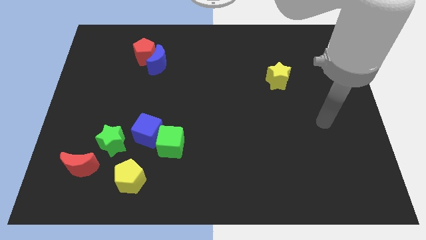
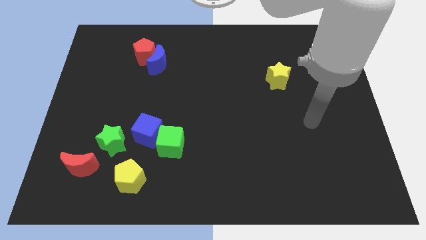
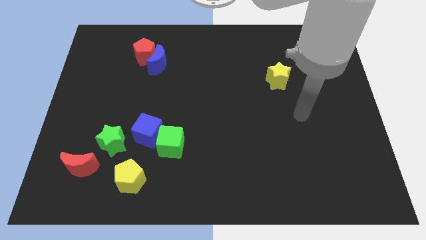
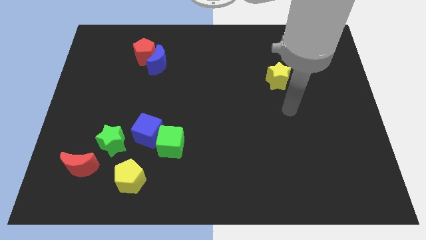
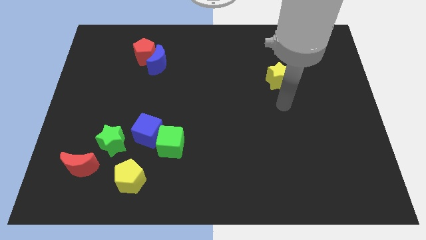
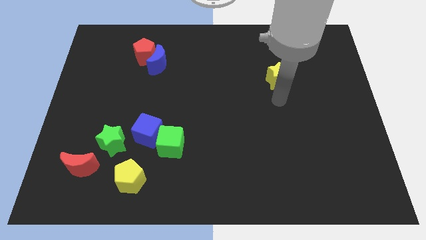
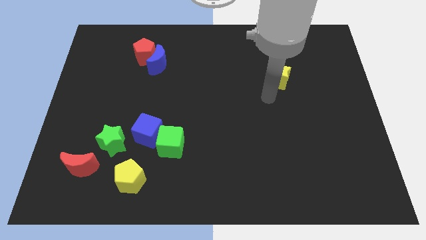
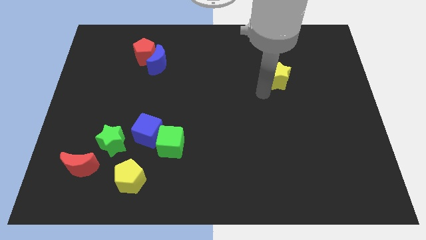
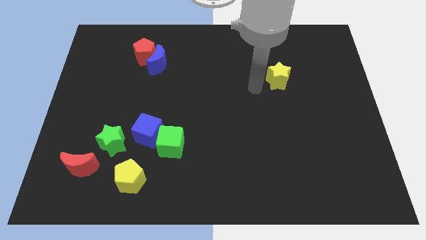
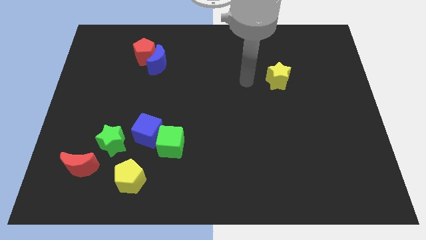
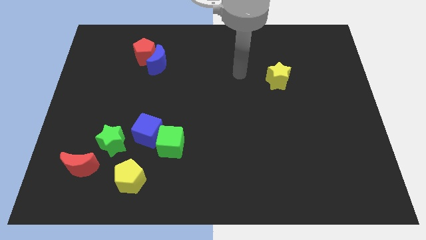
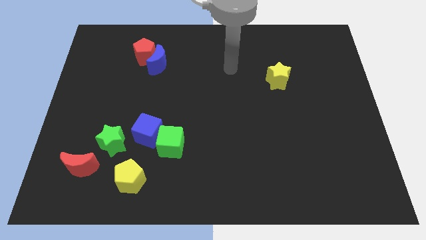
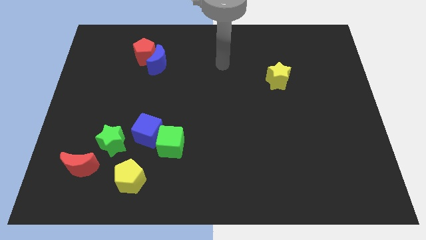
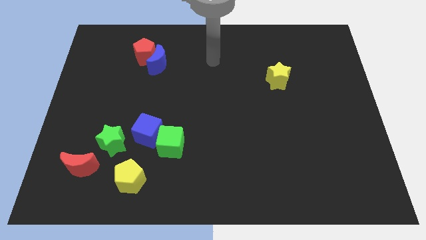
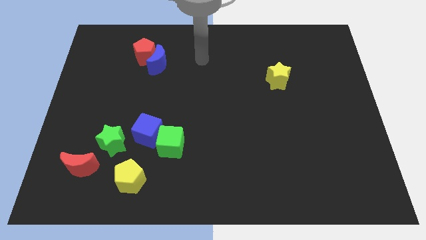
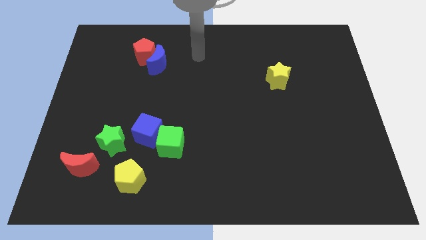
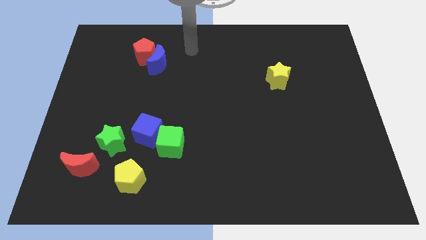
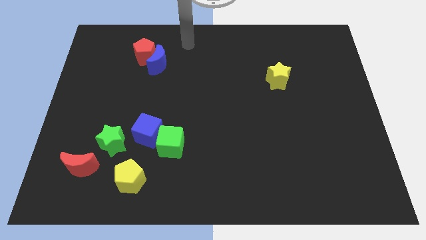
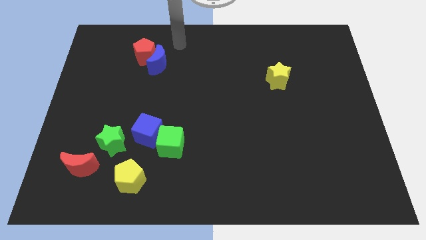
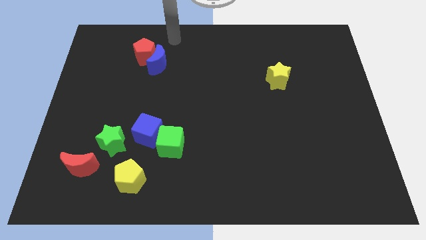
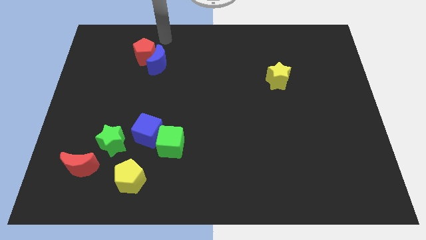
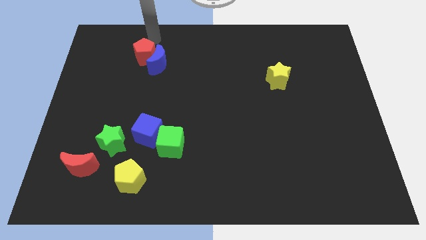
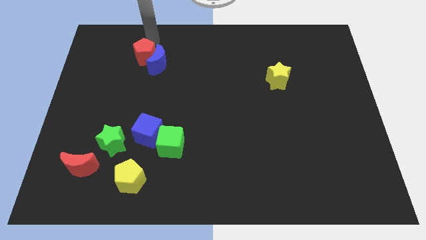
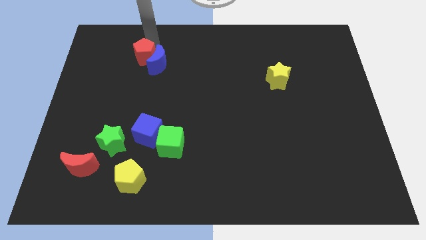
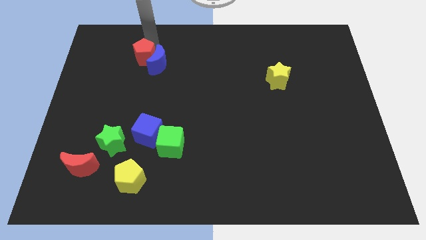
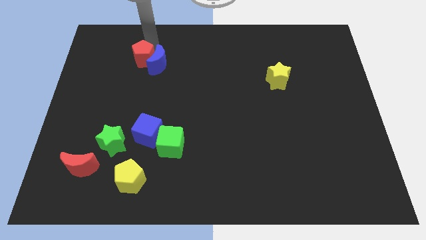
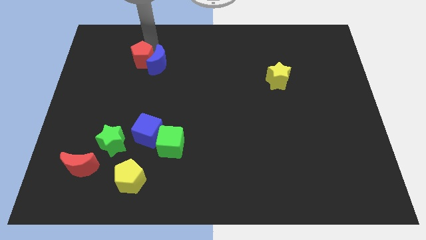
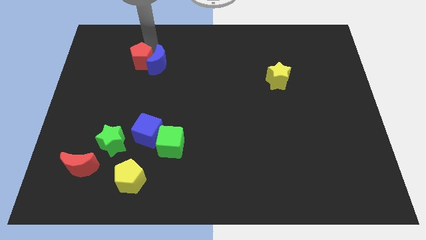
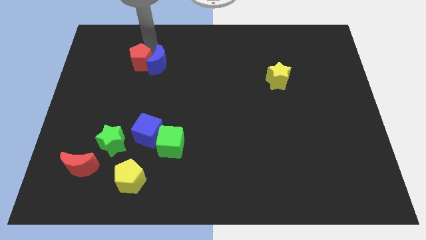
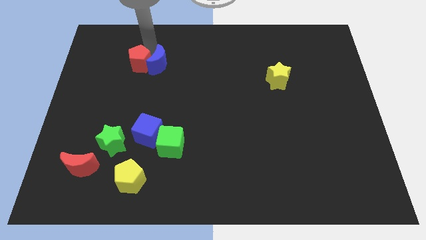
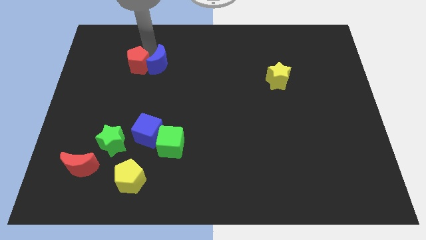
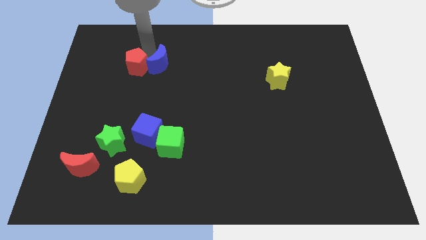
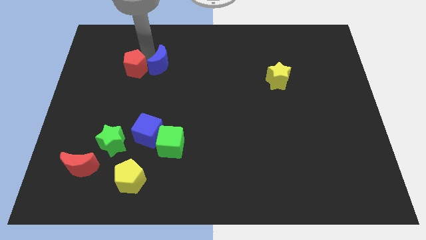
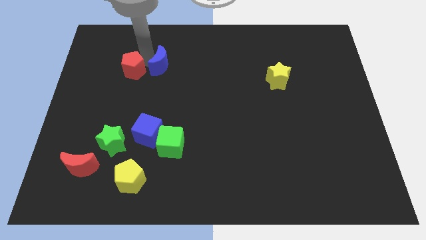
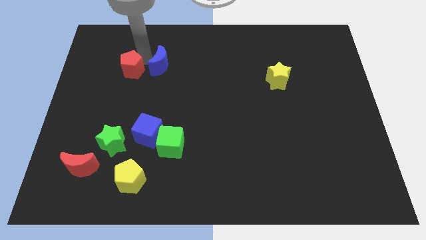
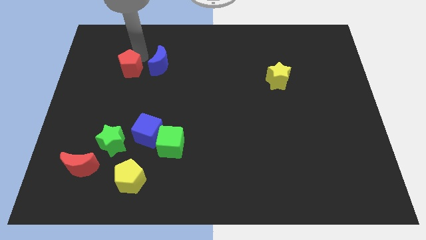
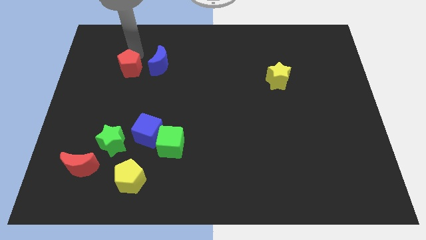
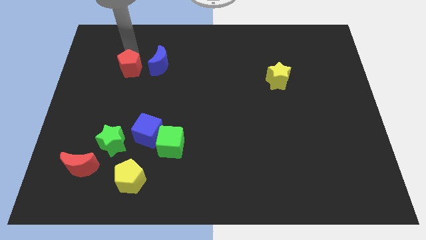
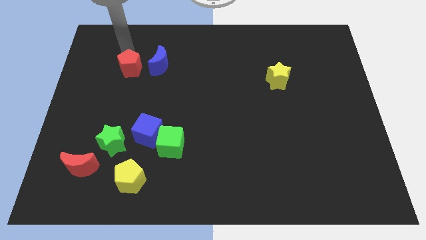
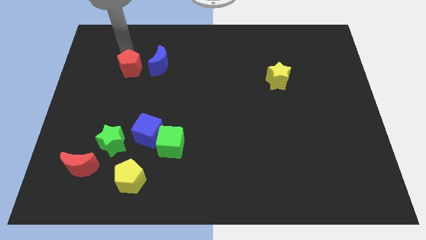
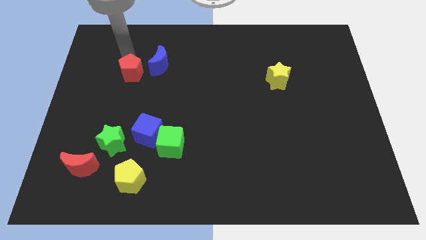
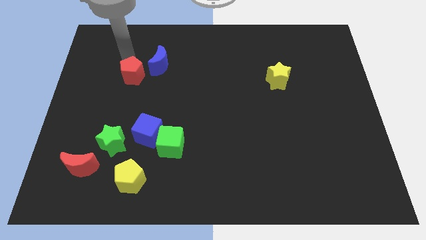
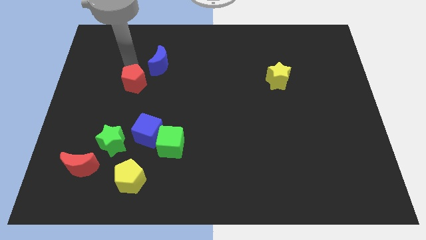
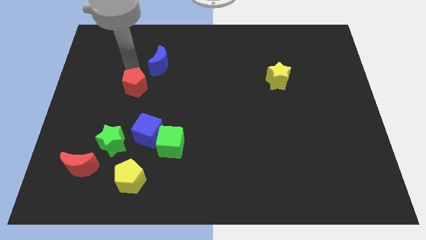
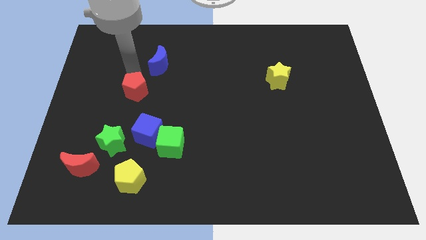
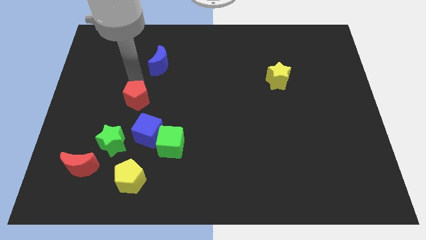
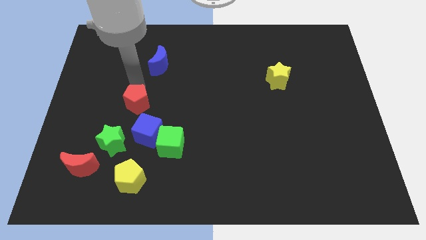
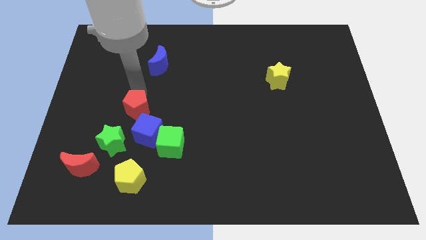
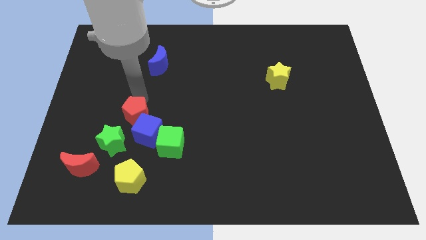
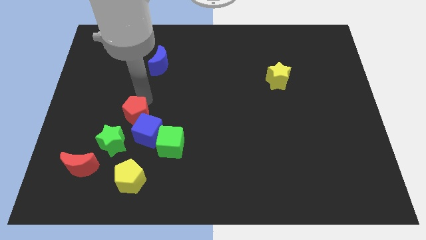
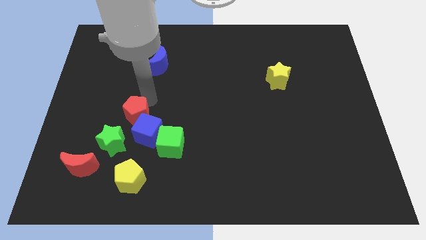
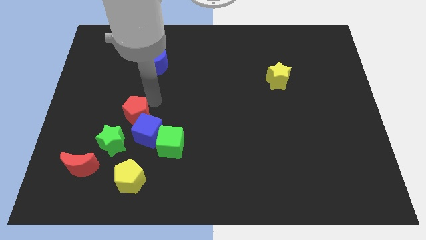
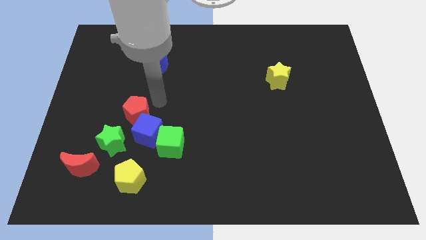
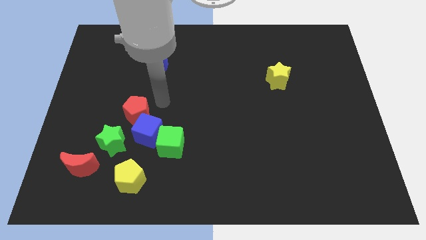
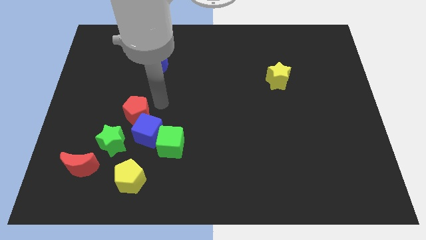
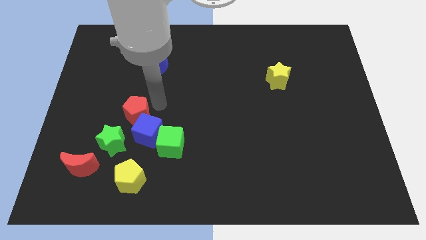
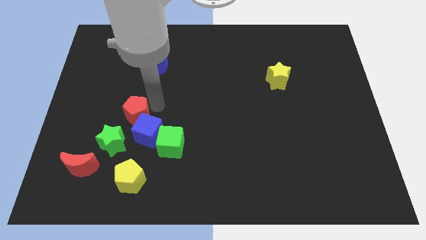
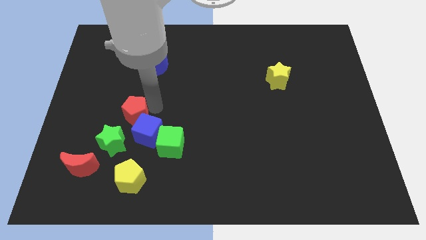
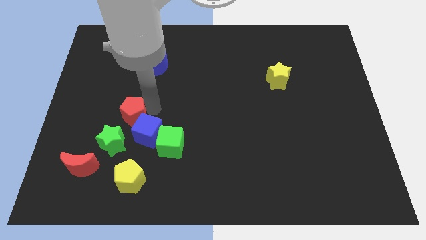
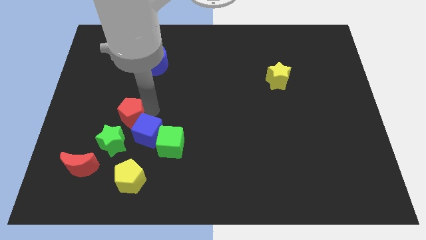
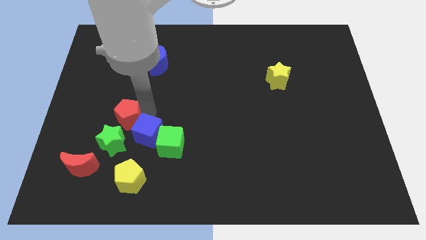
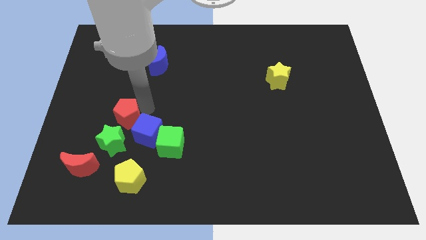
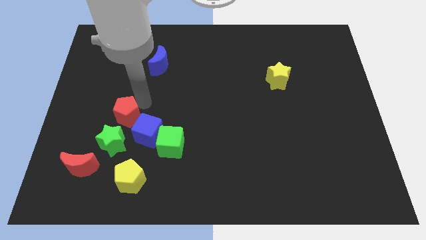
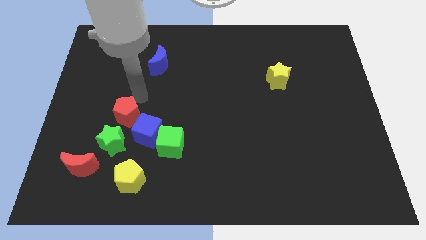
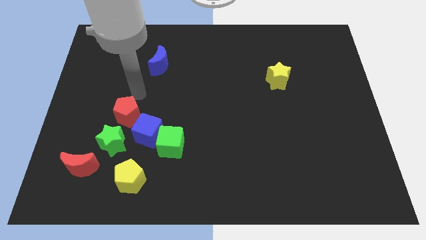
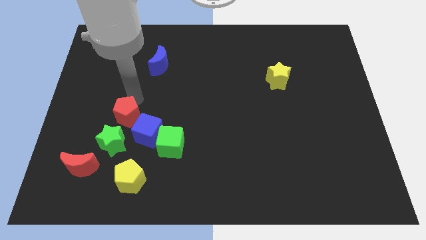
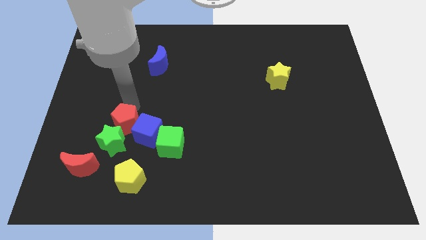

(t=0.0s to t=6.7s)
move the red pentagon towards the green star

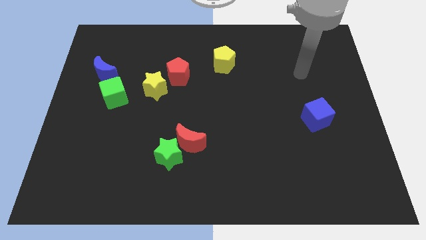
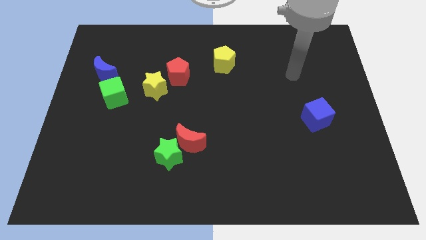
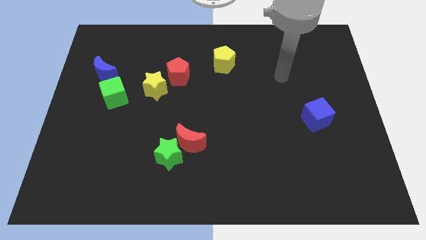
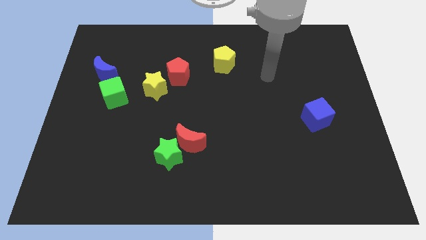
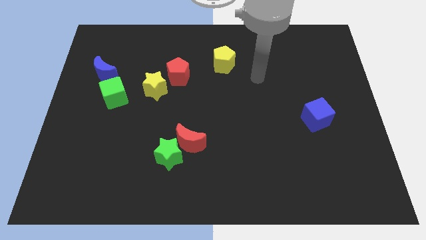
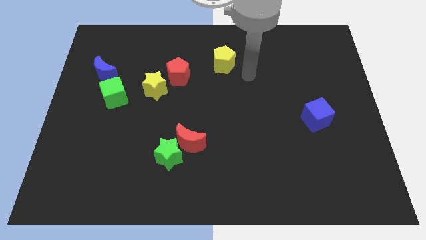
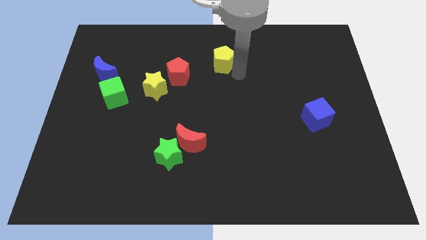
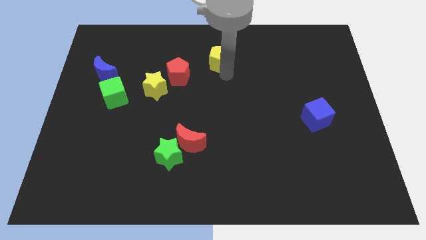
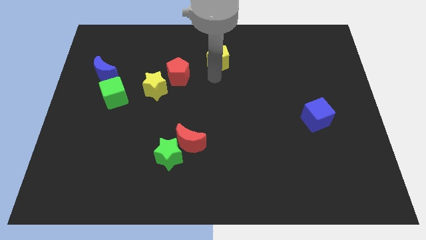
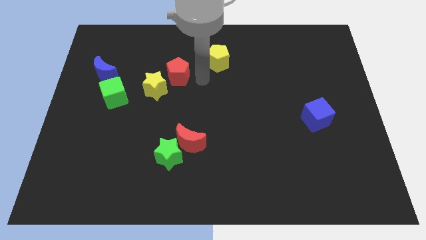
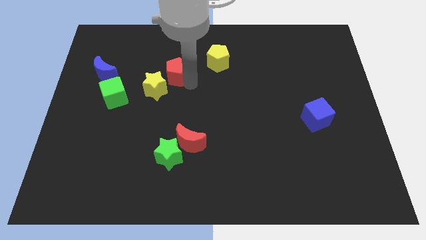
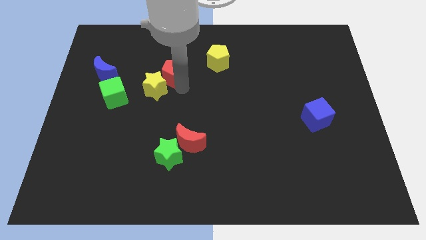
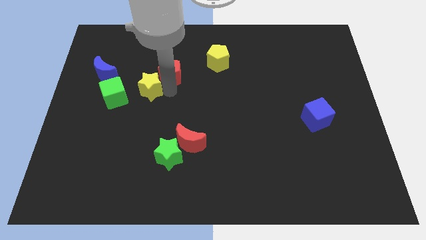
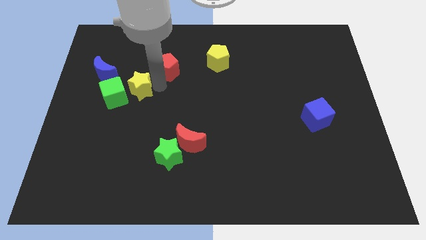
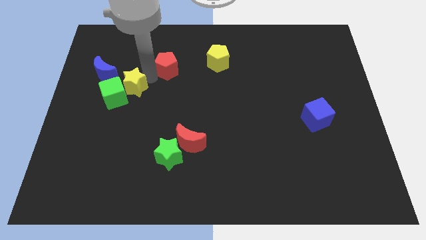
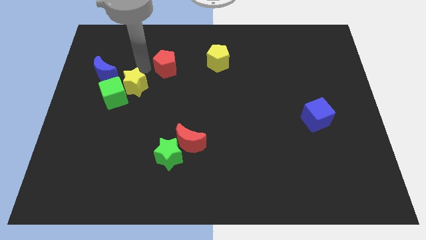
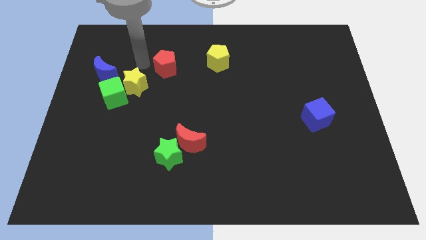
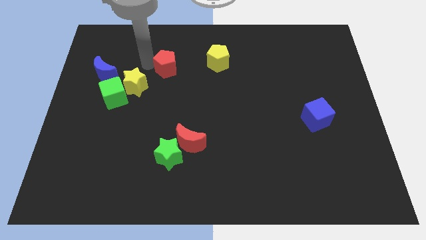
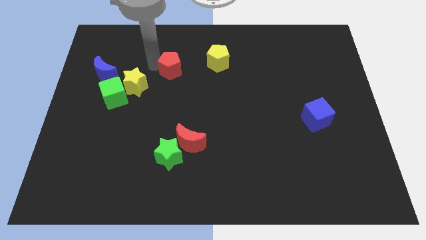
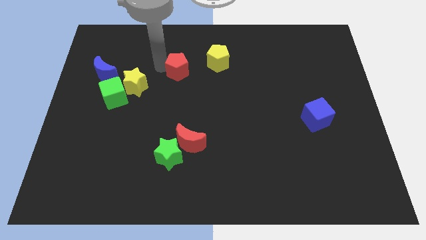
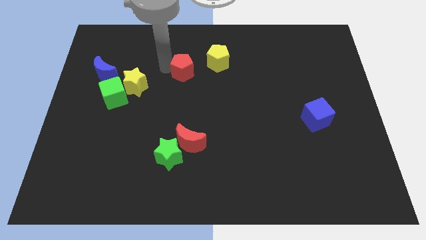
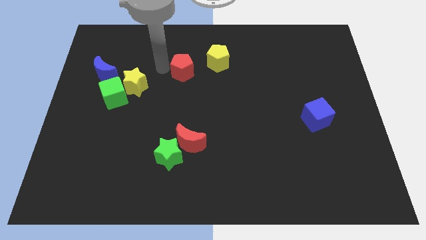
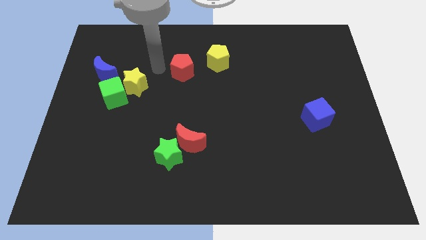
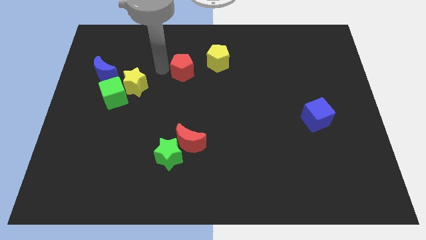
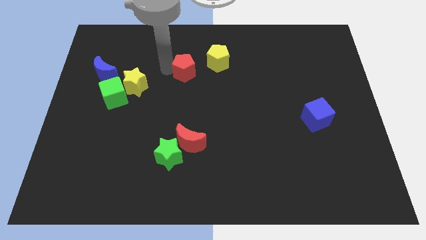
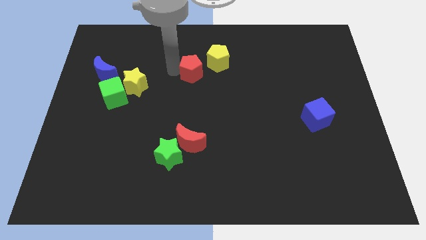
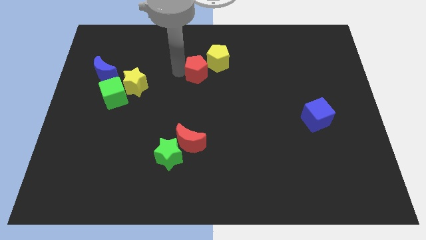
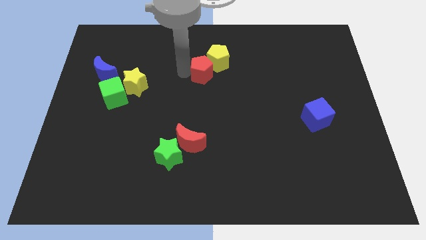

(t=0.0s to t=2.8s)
put the red pentagon to the yellow pentagon
